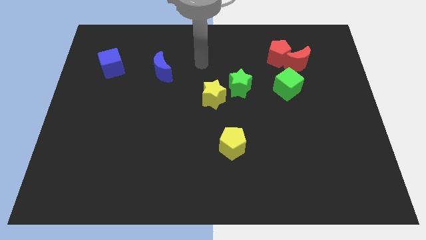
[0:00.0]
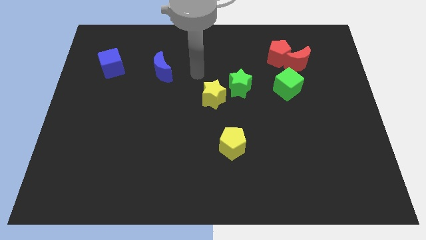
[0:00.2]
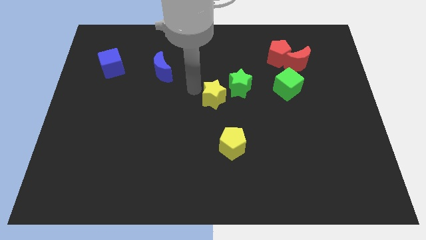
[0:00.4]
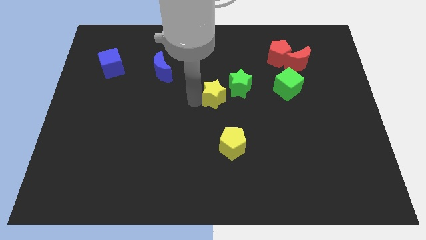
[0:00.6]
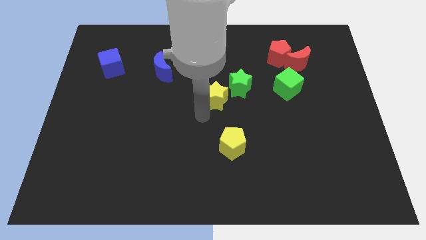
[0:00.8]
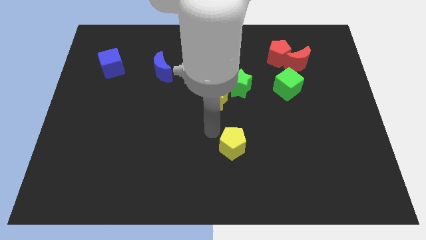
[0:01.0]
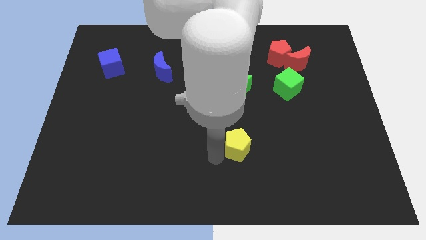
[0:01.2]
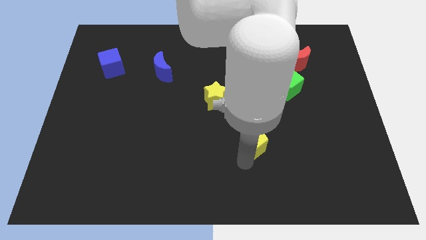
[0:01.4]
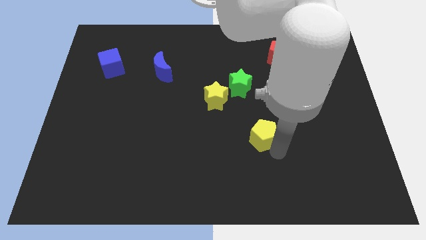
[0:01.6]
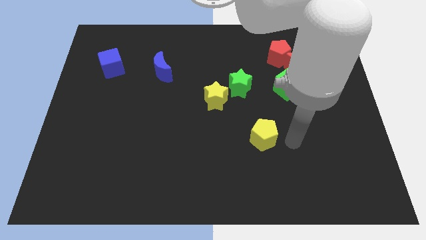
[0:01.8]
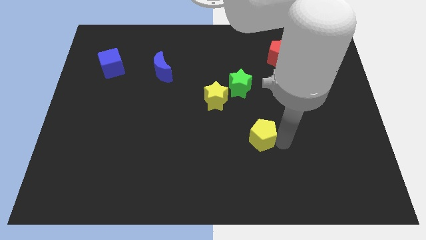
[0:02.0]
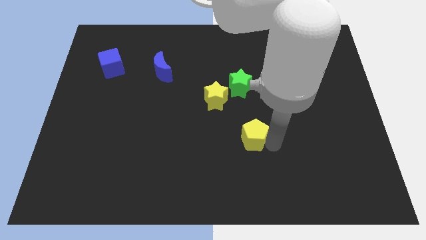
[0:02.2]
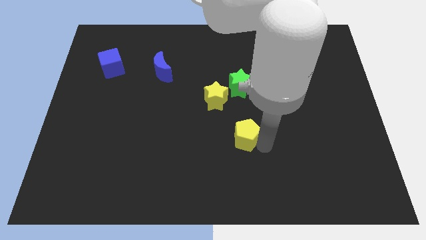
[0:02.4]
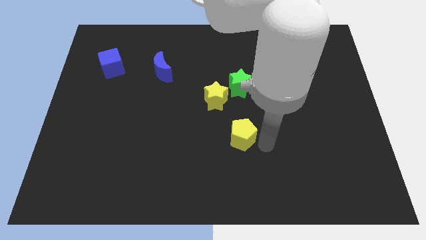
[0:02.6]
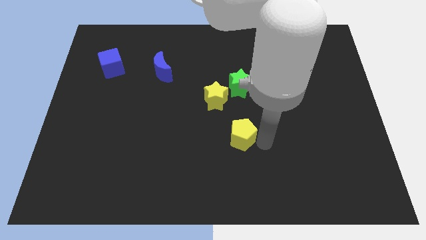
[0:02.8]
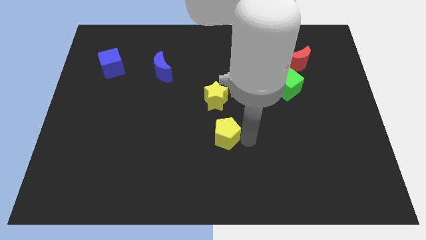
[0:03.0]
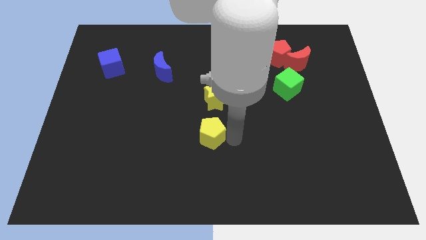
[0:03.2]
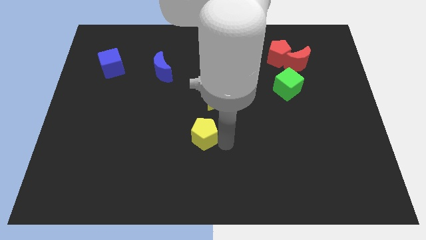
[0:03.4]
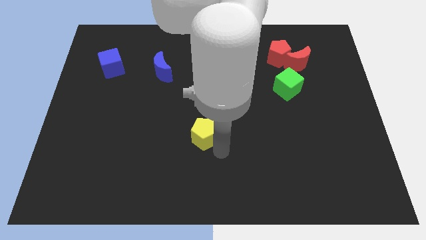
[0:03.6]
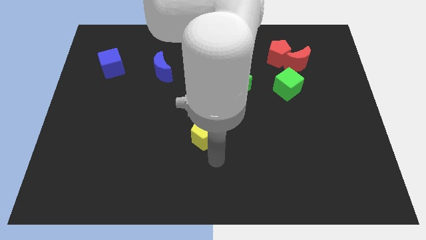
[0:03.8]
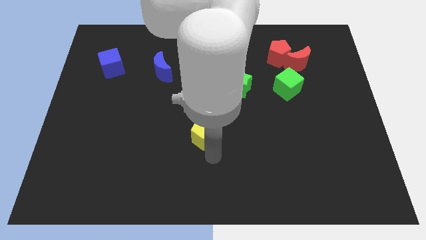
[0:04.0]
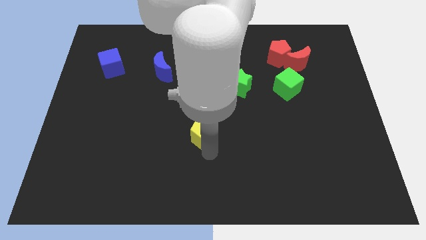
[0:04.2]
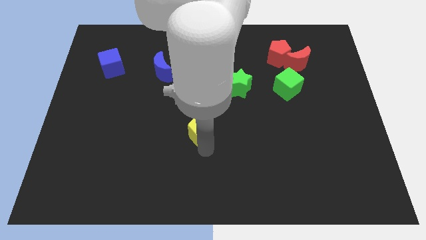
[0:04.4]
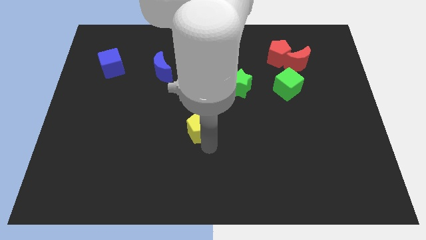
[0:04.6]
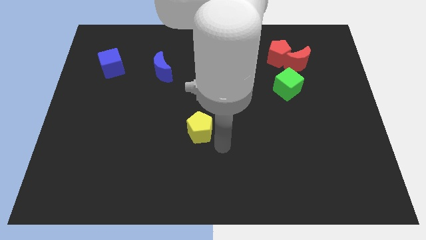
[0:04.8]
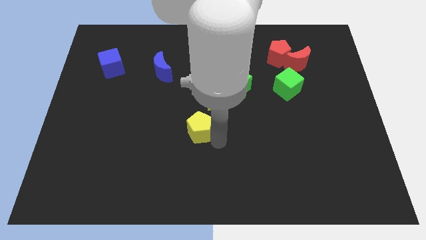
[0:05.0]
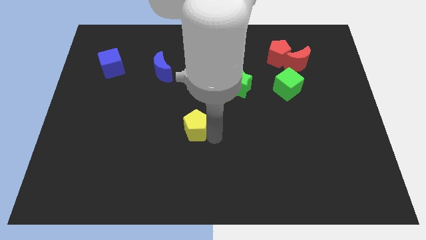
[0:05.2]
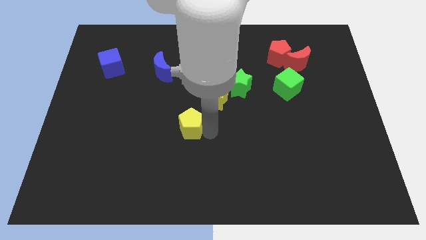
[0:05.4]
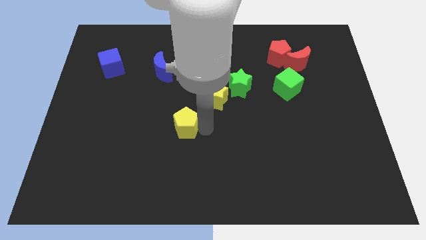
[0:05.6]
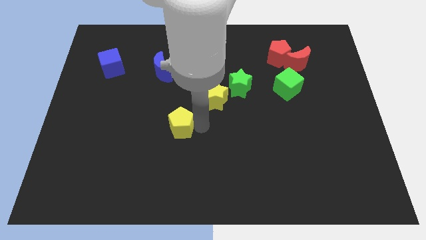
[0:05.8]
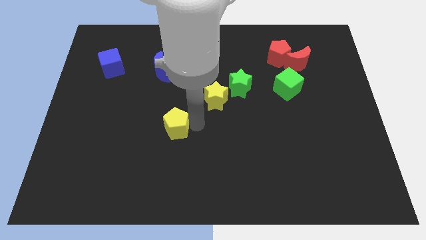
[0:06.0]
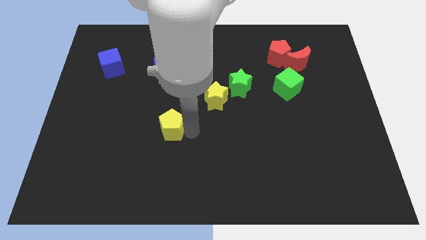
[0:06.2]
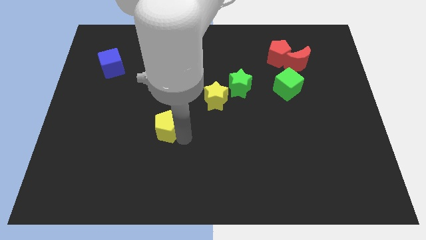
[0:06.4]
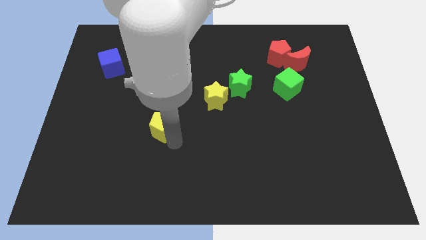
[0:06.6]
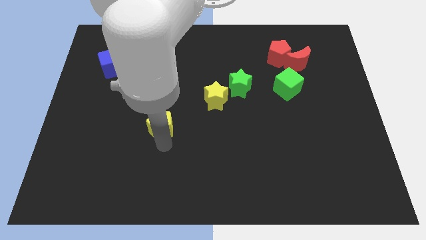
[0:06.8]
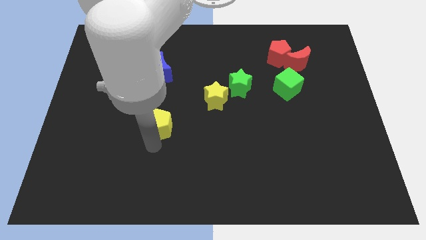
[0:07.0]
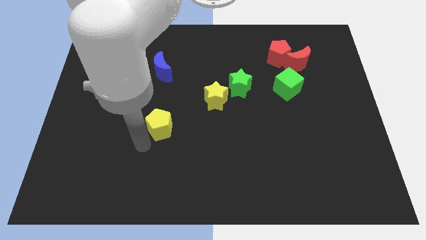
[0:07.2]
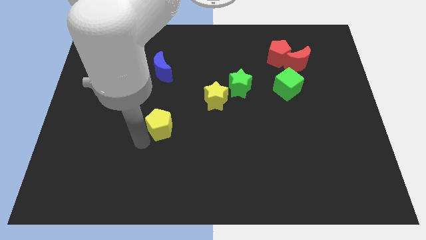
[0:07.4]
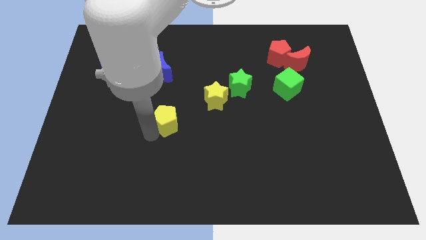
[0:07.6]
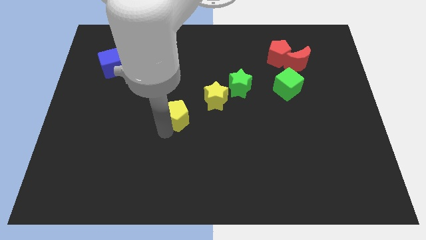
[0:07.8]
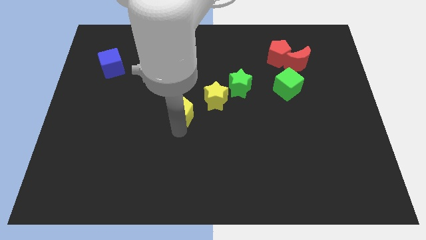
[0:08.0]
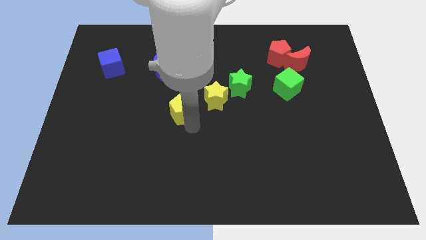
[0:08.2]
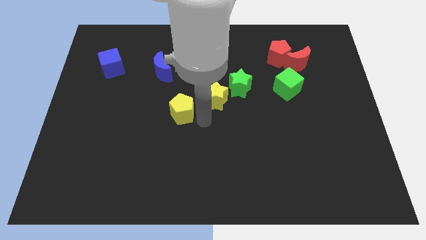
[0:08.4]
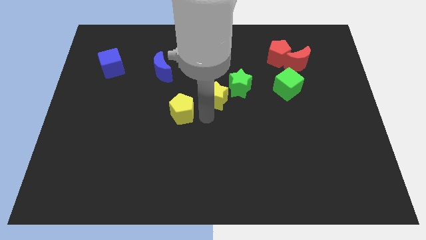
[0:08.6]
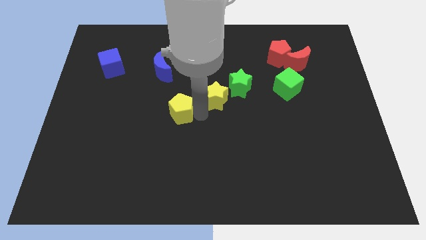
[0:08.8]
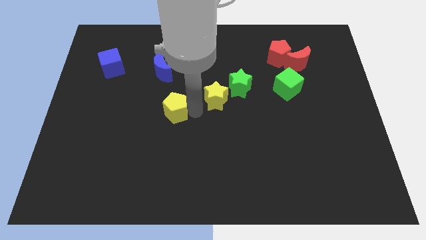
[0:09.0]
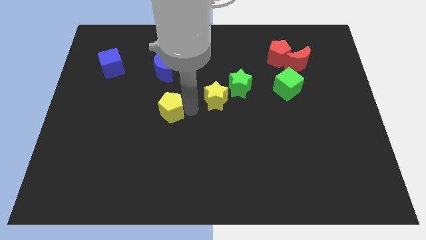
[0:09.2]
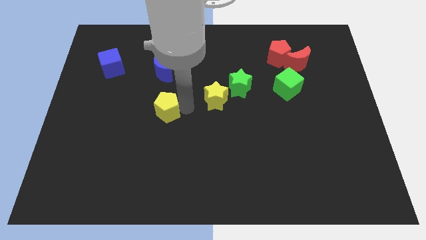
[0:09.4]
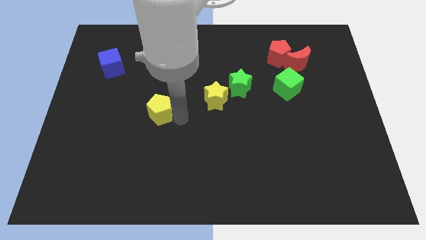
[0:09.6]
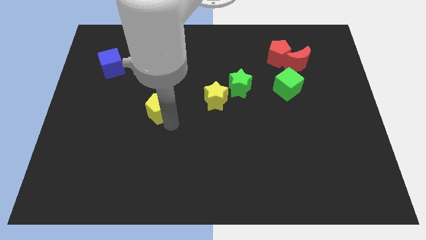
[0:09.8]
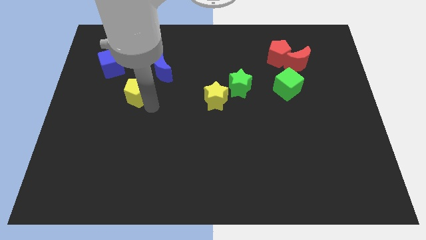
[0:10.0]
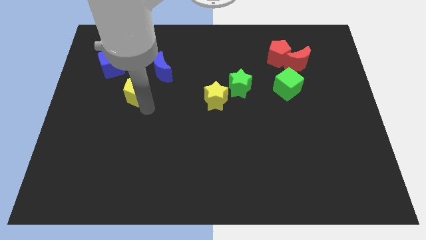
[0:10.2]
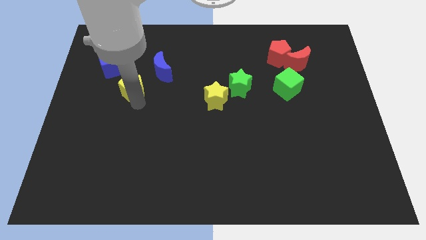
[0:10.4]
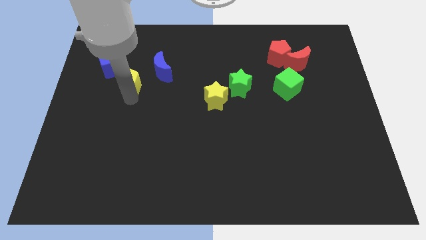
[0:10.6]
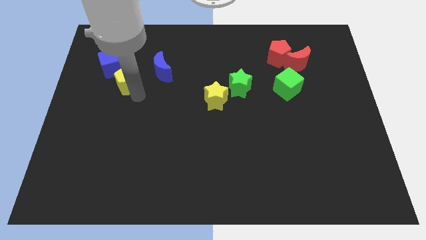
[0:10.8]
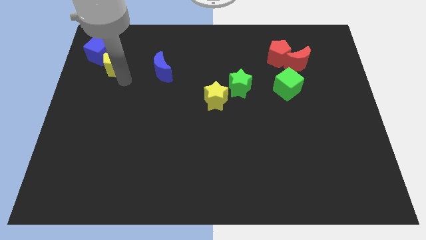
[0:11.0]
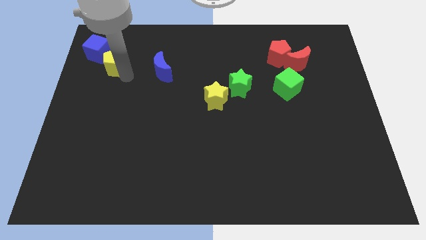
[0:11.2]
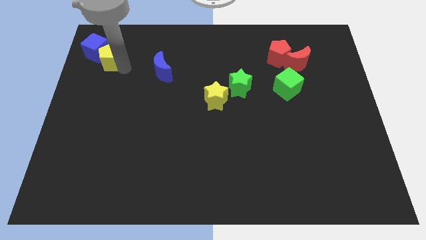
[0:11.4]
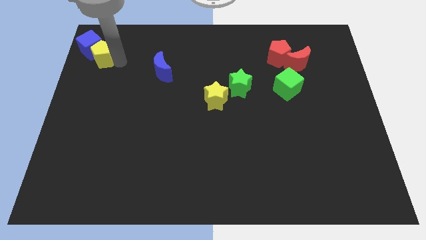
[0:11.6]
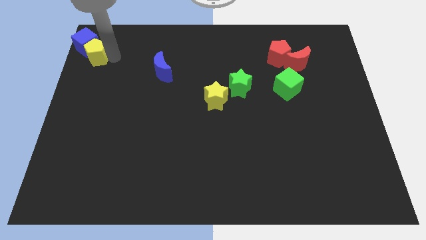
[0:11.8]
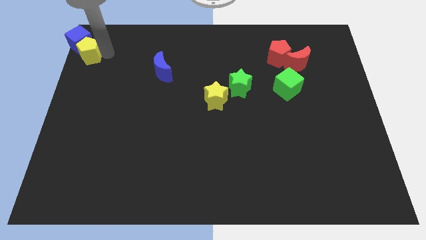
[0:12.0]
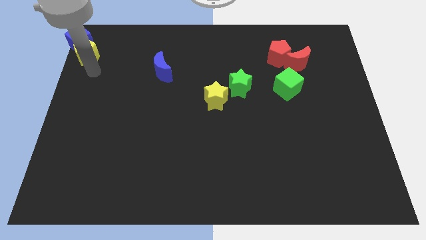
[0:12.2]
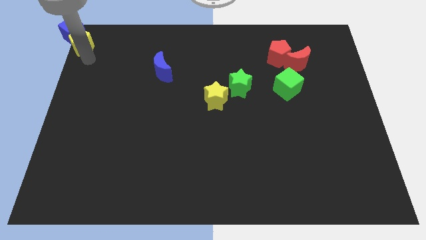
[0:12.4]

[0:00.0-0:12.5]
slide the yellow pentagon to the top left corner

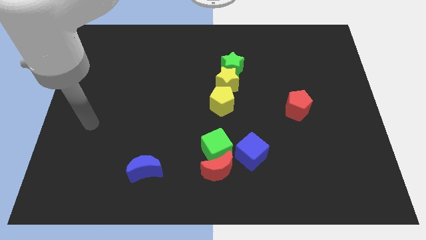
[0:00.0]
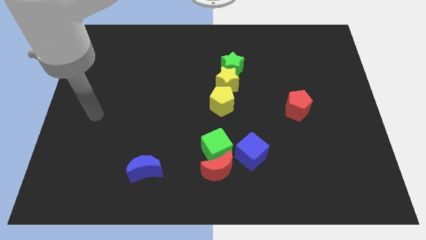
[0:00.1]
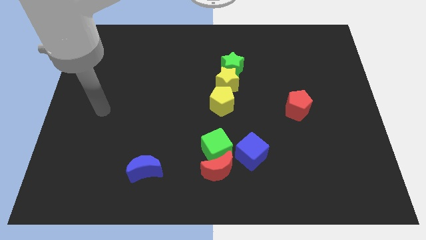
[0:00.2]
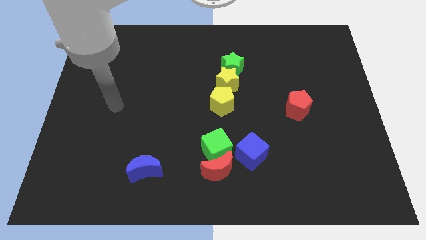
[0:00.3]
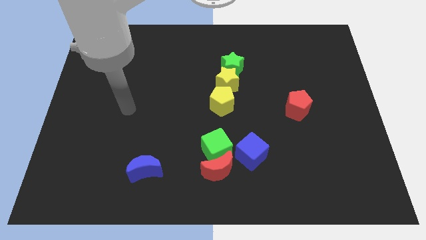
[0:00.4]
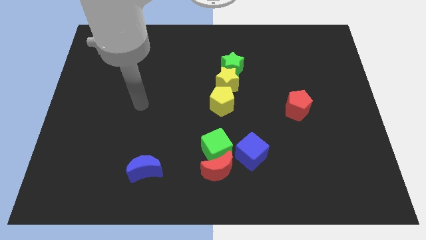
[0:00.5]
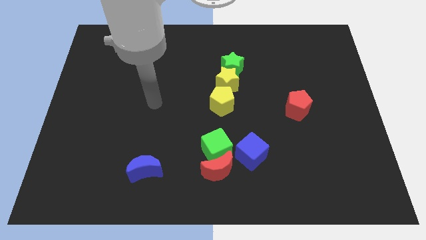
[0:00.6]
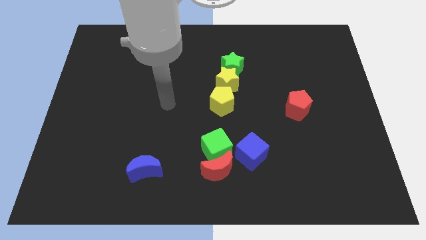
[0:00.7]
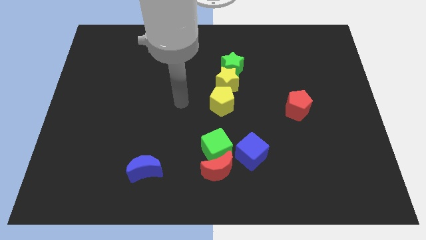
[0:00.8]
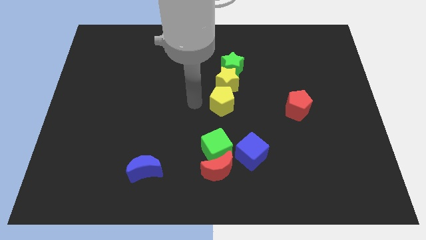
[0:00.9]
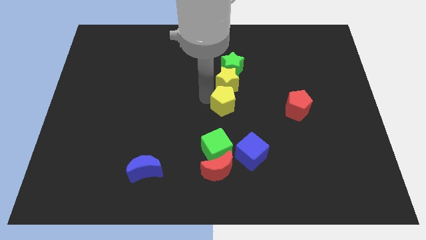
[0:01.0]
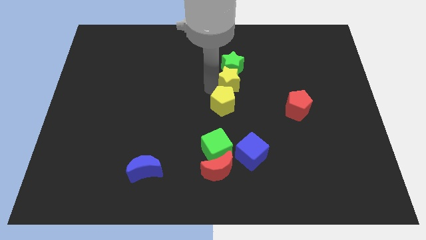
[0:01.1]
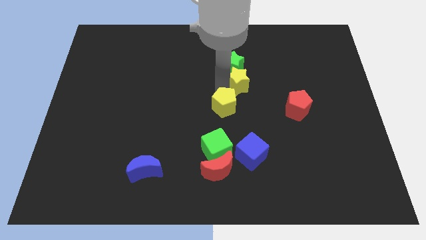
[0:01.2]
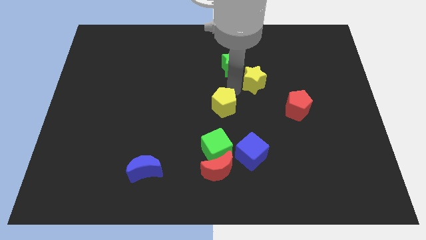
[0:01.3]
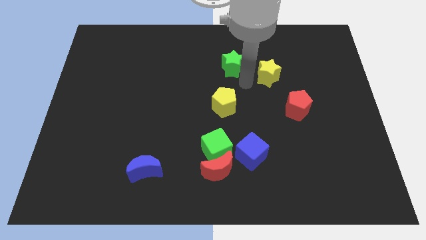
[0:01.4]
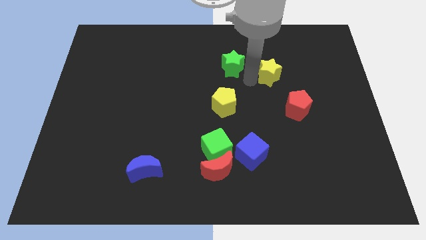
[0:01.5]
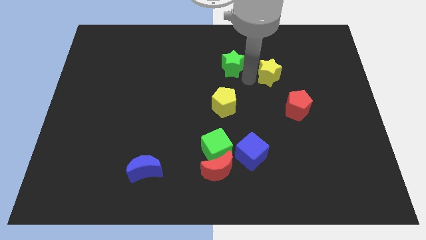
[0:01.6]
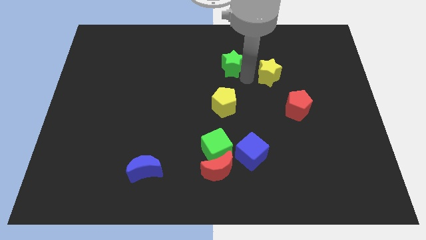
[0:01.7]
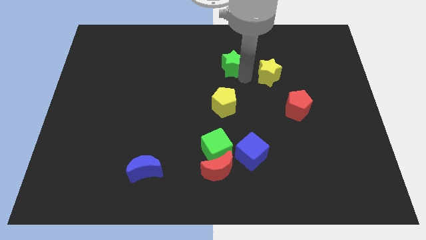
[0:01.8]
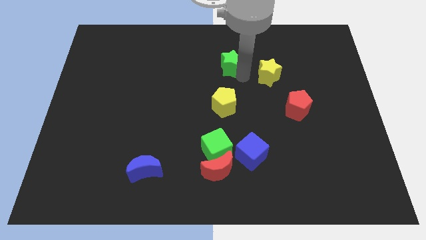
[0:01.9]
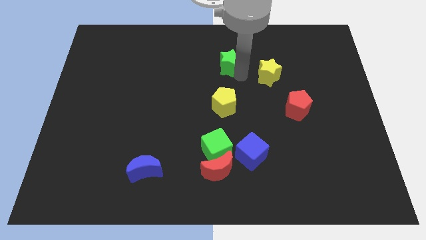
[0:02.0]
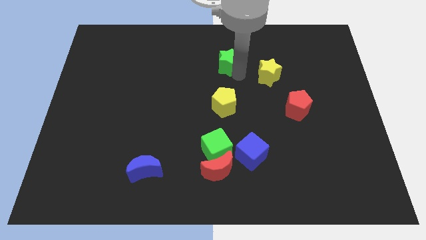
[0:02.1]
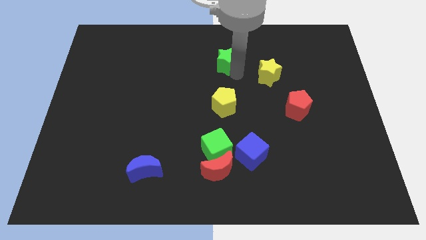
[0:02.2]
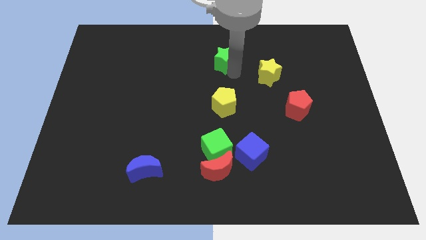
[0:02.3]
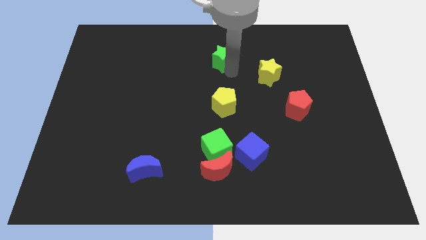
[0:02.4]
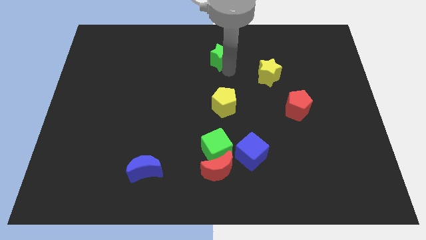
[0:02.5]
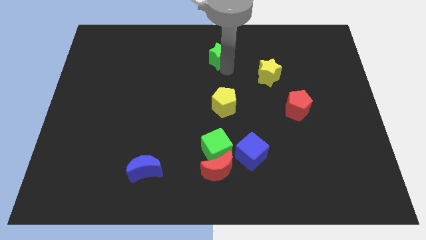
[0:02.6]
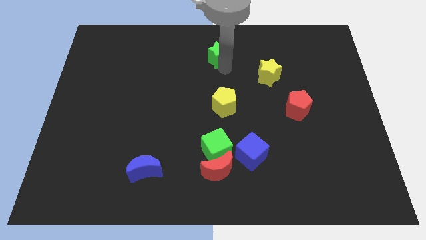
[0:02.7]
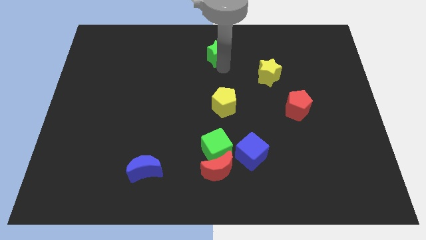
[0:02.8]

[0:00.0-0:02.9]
put the green star to the top side
